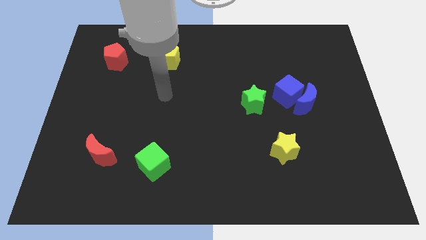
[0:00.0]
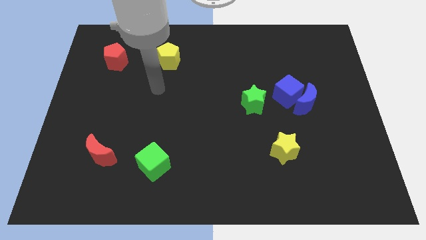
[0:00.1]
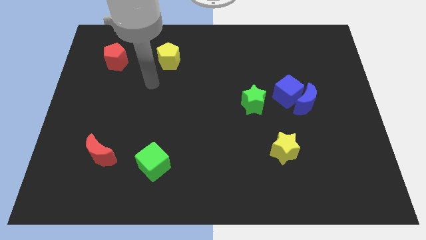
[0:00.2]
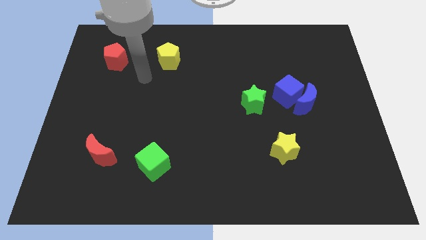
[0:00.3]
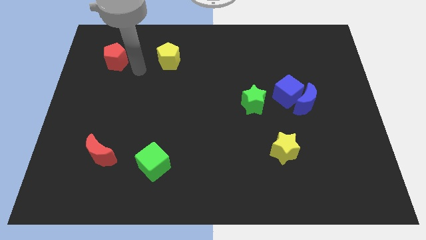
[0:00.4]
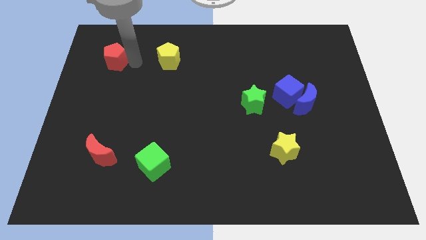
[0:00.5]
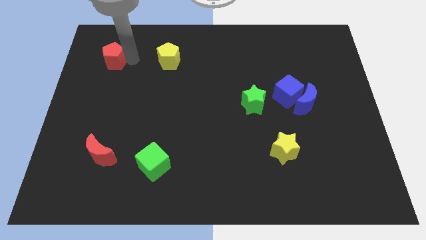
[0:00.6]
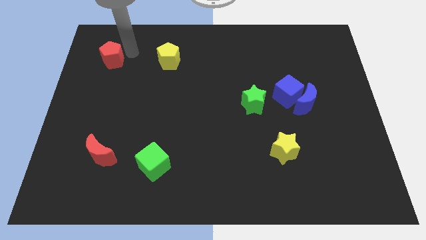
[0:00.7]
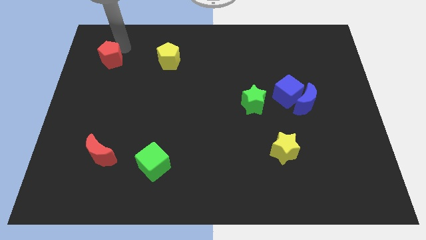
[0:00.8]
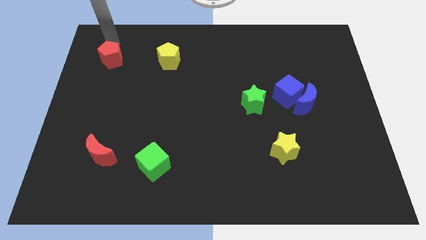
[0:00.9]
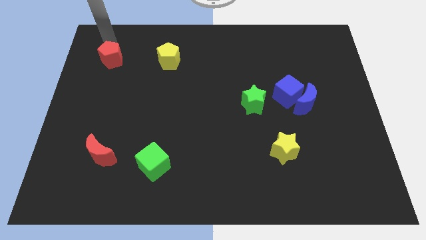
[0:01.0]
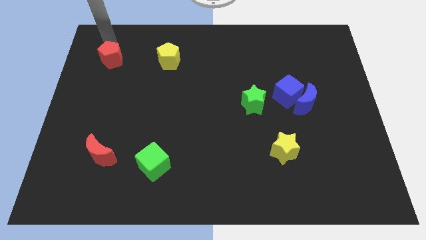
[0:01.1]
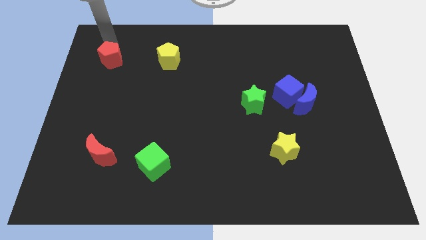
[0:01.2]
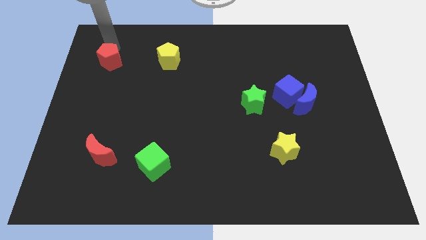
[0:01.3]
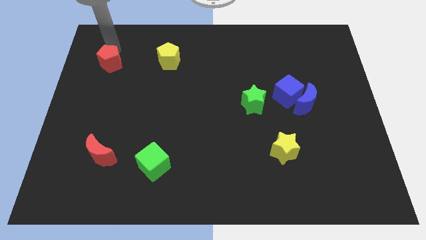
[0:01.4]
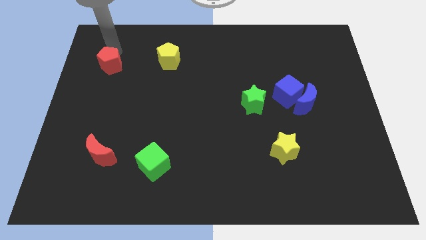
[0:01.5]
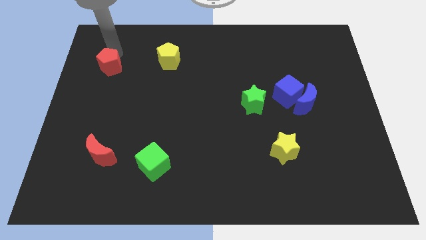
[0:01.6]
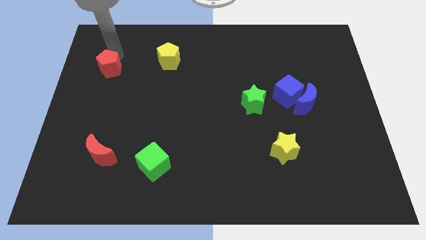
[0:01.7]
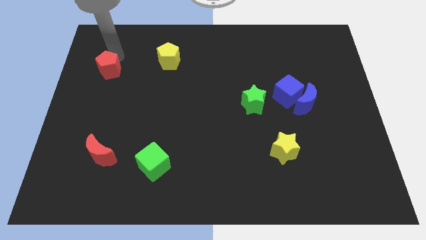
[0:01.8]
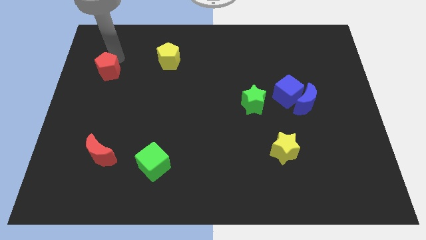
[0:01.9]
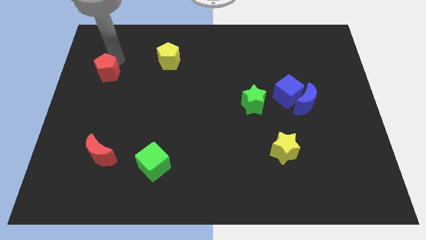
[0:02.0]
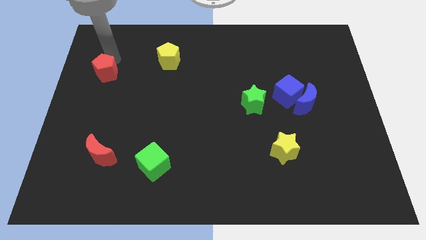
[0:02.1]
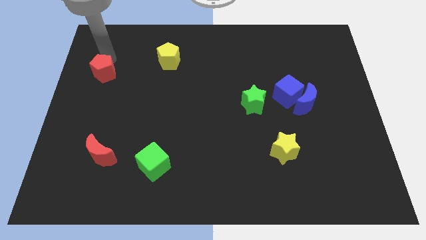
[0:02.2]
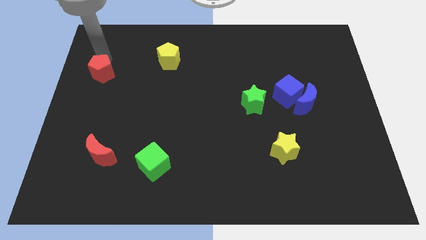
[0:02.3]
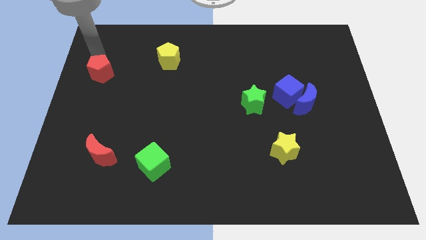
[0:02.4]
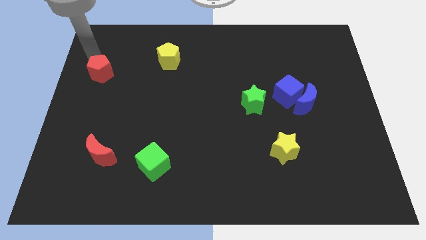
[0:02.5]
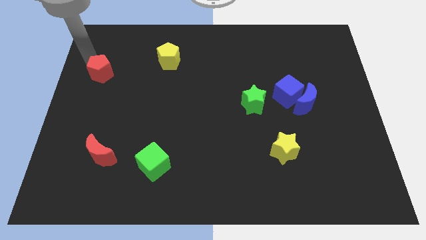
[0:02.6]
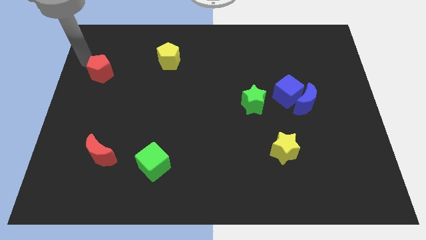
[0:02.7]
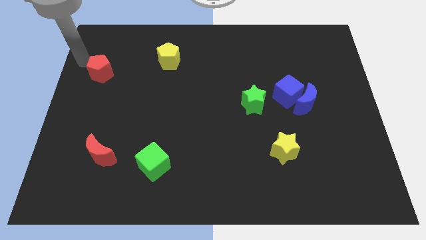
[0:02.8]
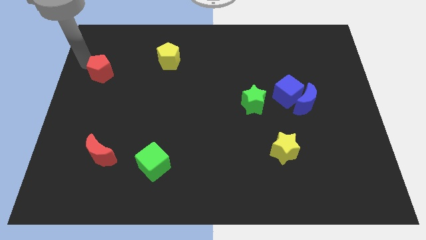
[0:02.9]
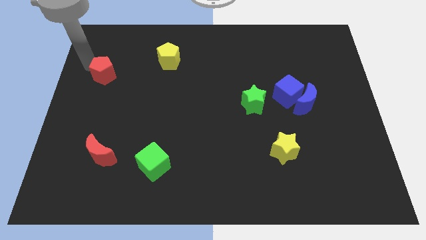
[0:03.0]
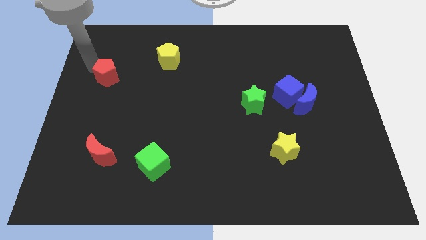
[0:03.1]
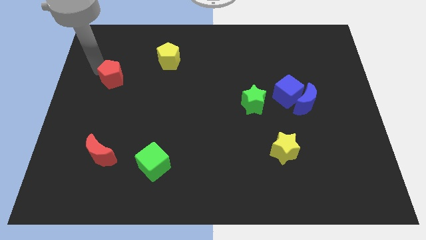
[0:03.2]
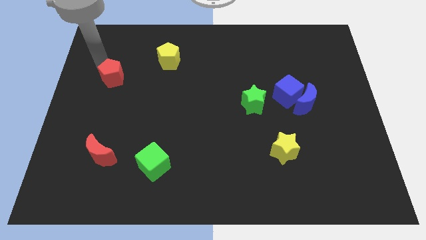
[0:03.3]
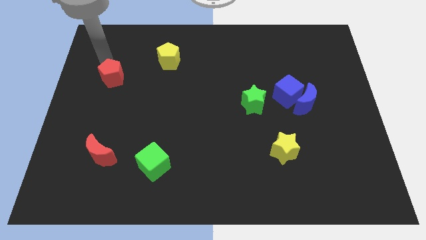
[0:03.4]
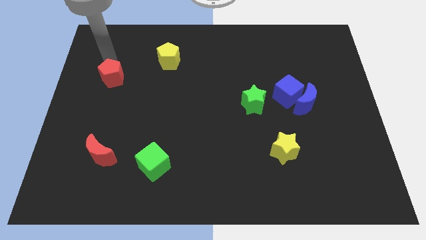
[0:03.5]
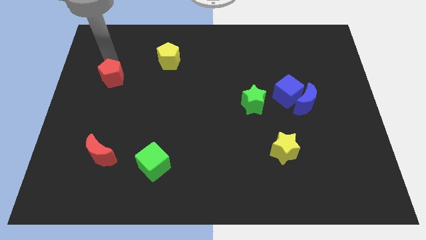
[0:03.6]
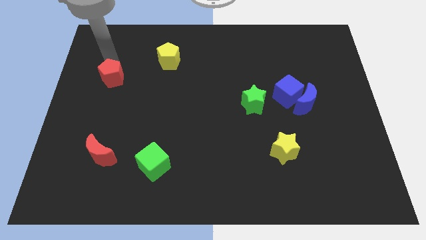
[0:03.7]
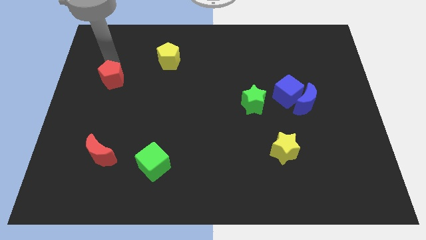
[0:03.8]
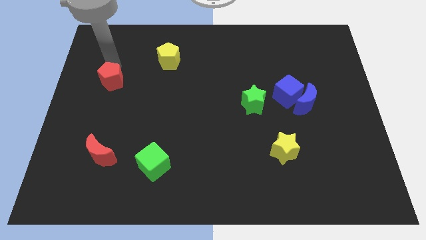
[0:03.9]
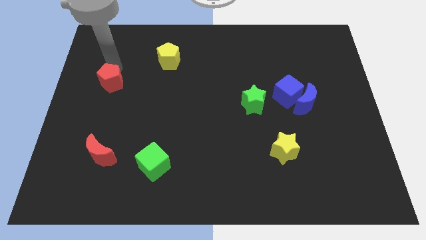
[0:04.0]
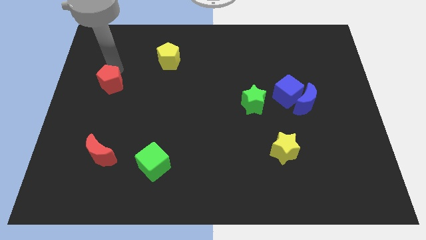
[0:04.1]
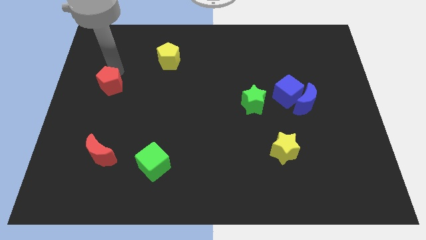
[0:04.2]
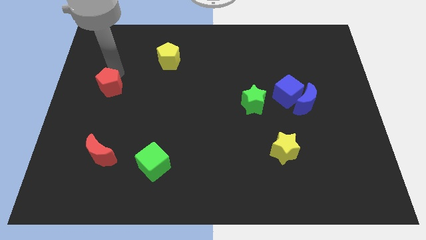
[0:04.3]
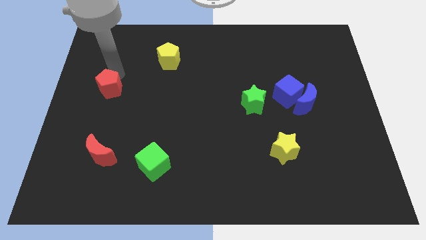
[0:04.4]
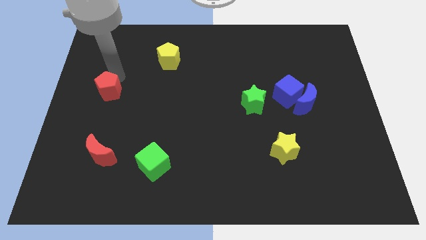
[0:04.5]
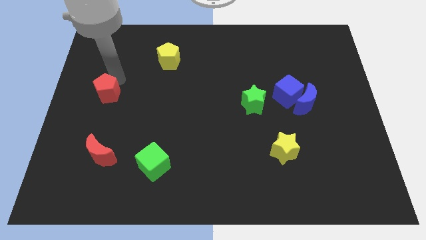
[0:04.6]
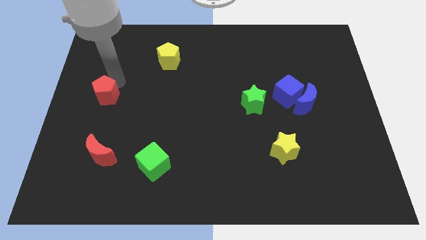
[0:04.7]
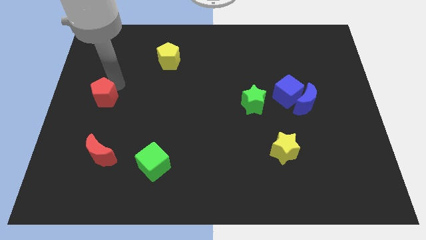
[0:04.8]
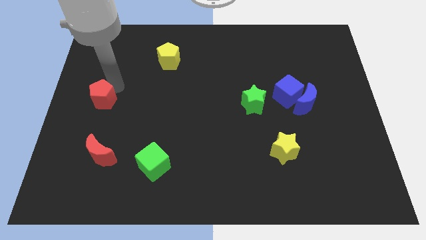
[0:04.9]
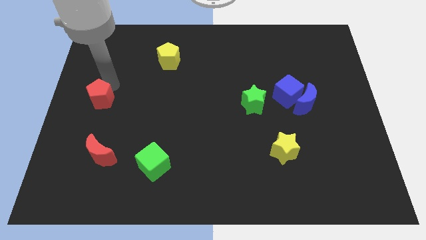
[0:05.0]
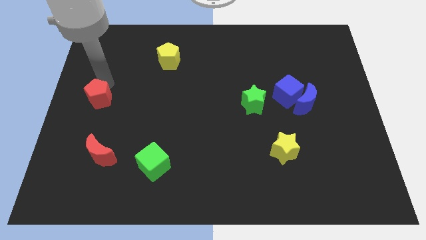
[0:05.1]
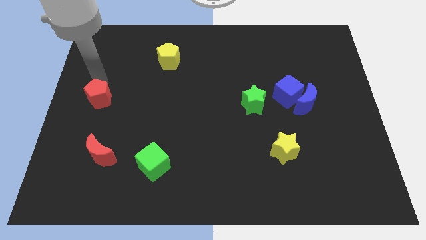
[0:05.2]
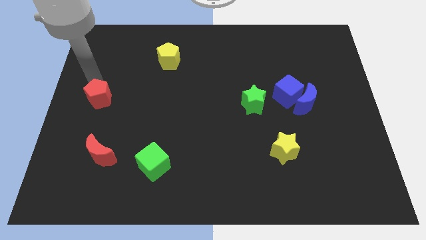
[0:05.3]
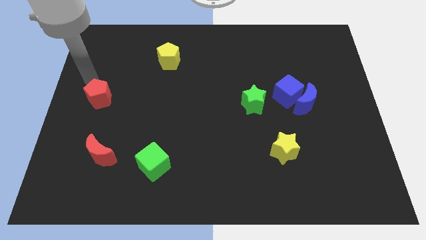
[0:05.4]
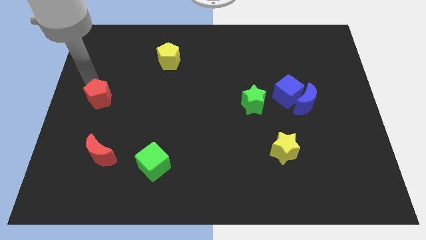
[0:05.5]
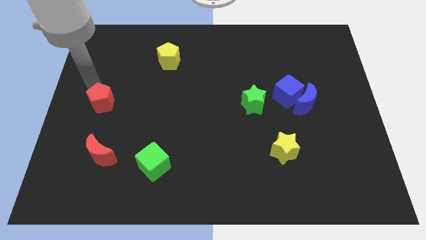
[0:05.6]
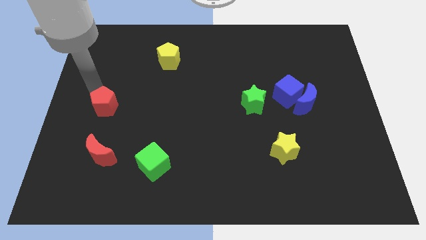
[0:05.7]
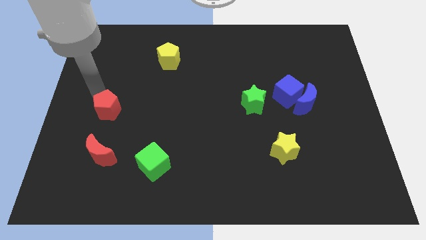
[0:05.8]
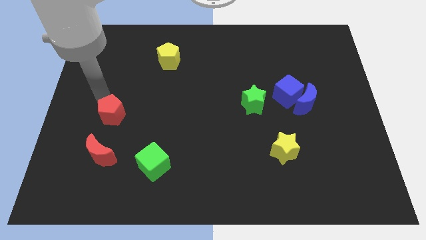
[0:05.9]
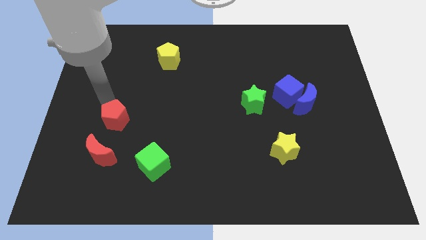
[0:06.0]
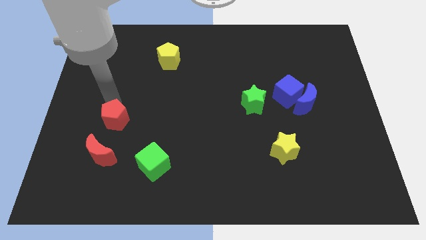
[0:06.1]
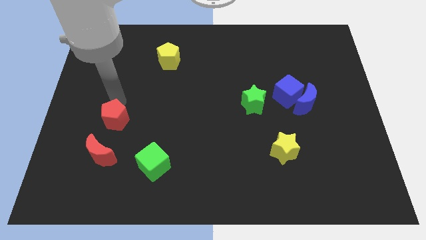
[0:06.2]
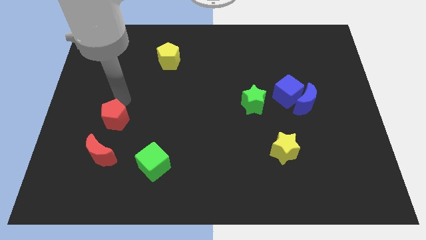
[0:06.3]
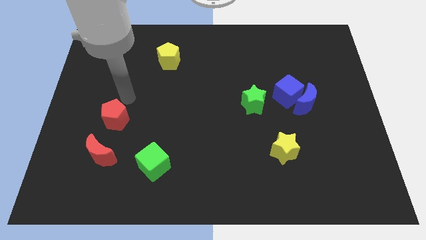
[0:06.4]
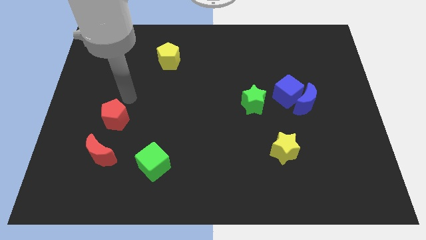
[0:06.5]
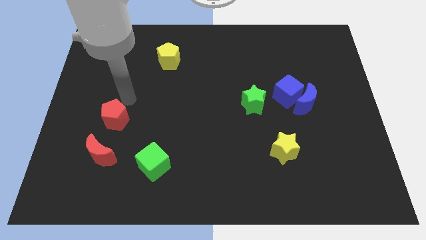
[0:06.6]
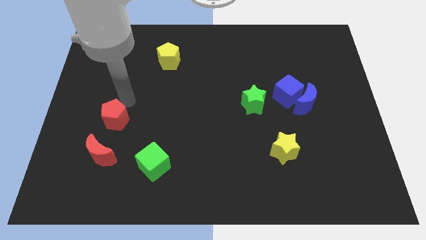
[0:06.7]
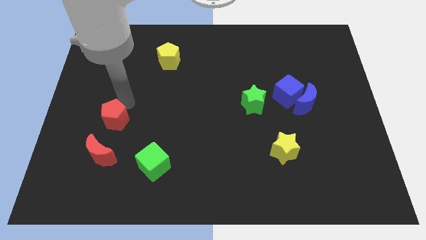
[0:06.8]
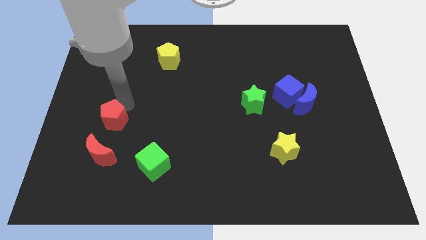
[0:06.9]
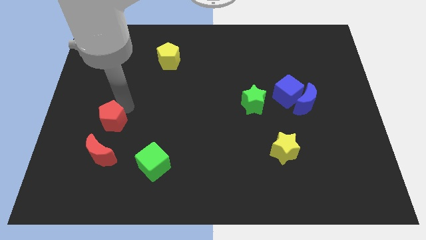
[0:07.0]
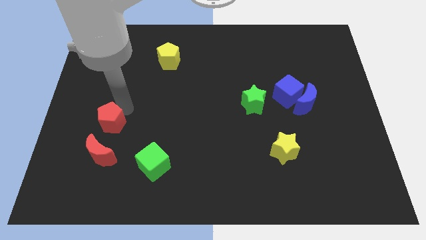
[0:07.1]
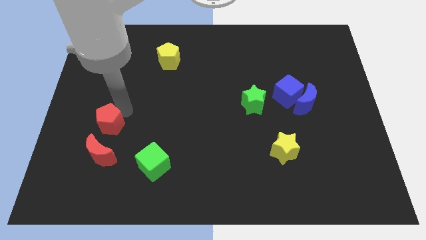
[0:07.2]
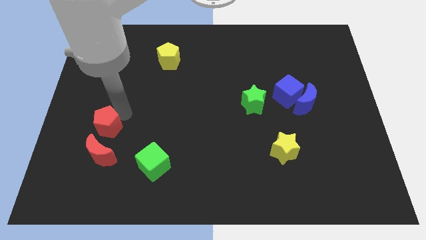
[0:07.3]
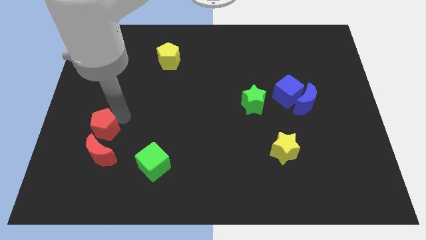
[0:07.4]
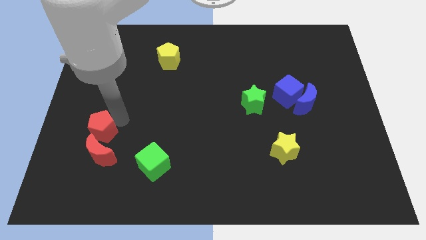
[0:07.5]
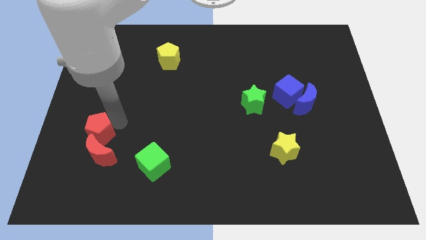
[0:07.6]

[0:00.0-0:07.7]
put the red pentagon towards the red moon
